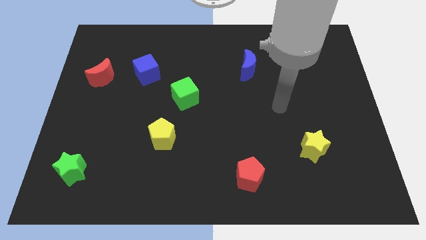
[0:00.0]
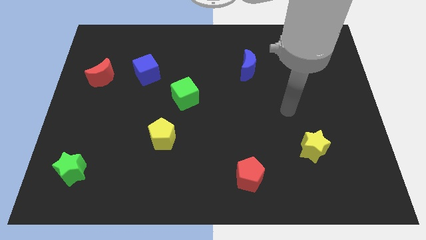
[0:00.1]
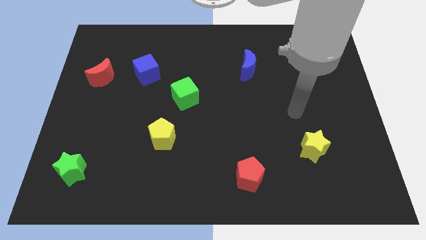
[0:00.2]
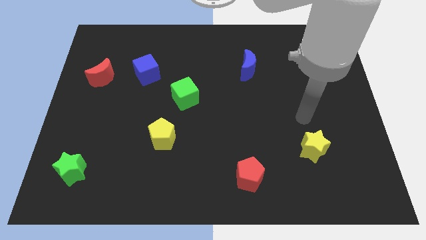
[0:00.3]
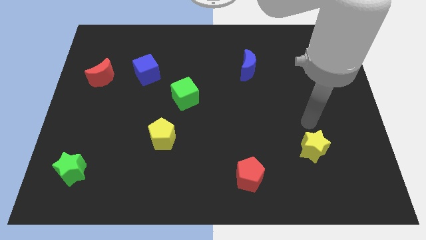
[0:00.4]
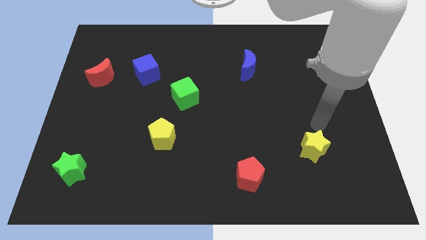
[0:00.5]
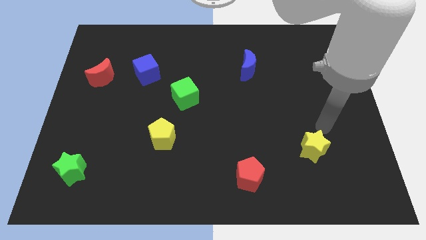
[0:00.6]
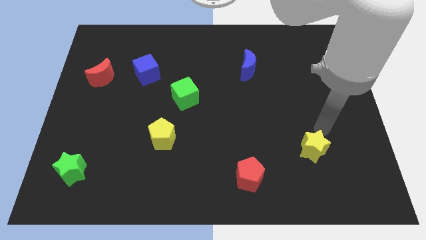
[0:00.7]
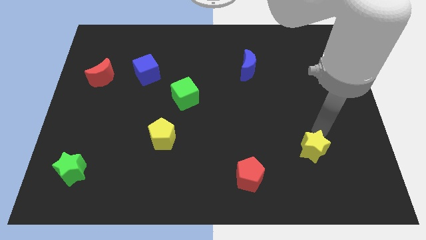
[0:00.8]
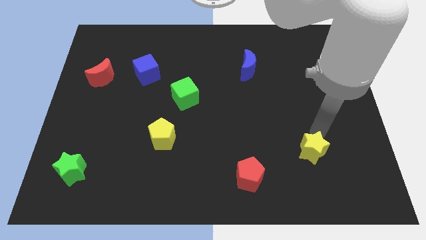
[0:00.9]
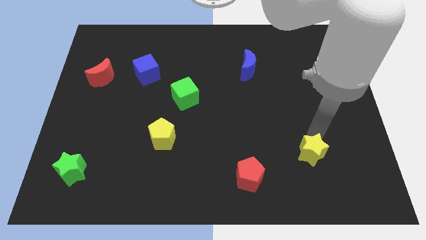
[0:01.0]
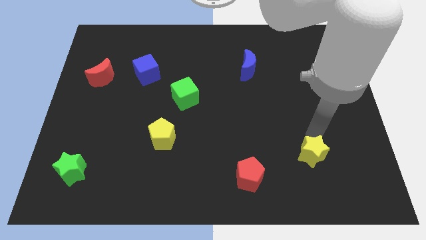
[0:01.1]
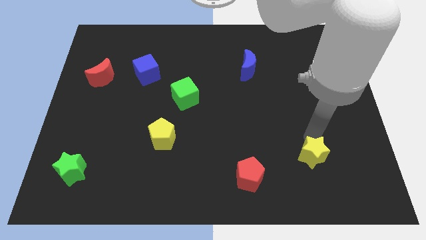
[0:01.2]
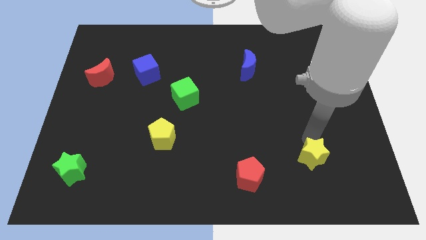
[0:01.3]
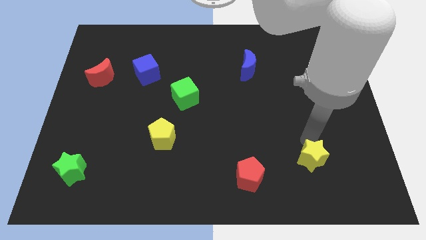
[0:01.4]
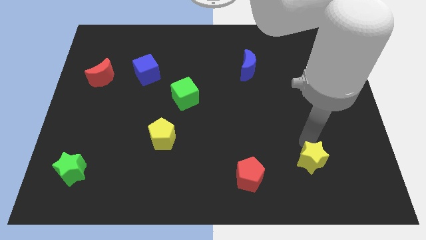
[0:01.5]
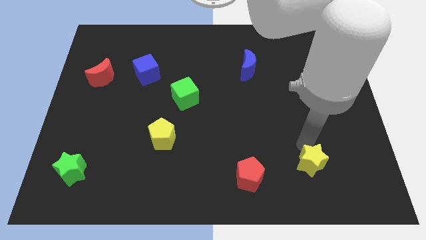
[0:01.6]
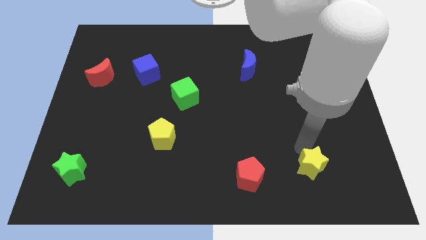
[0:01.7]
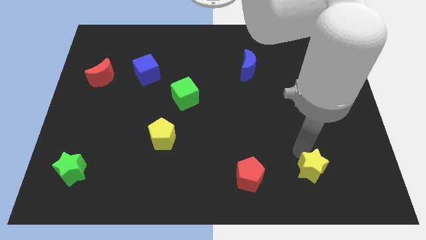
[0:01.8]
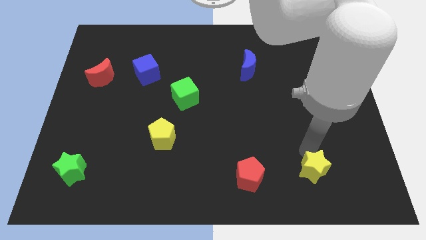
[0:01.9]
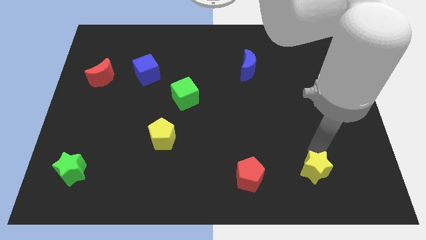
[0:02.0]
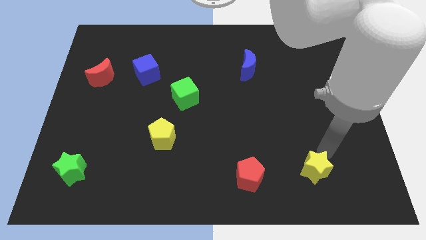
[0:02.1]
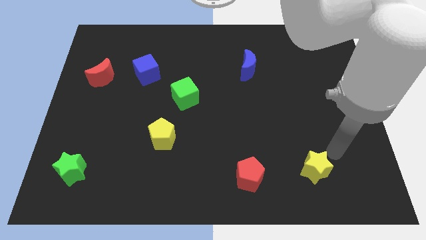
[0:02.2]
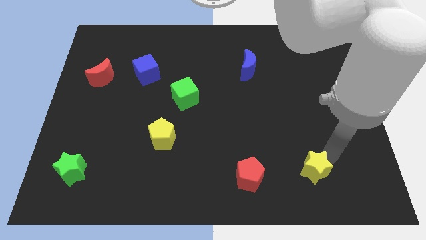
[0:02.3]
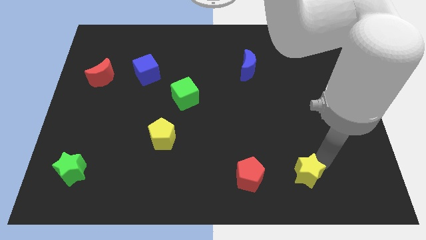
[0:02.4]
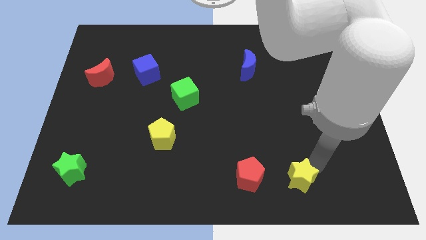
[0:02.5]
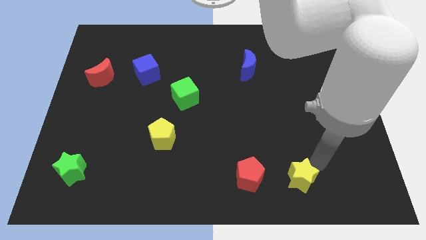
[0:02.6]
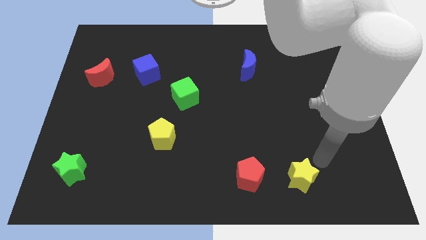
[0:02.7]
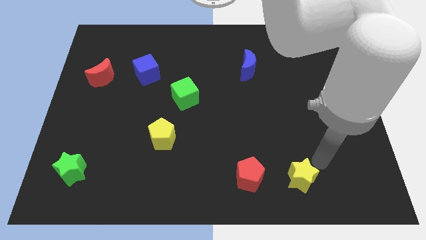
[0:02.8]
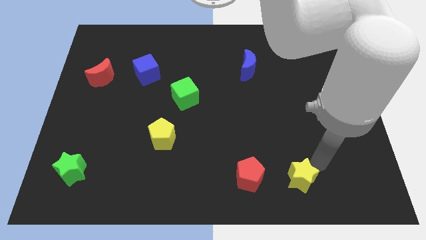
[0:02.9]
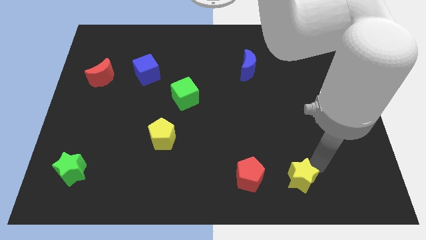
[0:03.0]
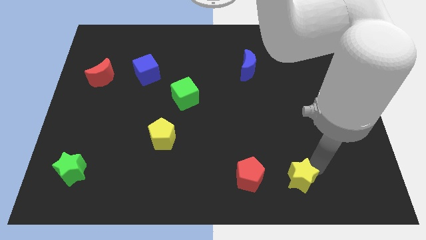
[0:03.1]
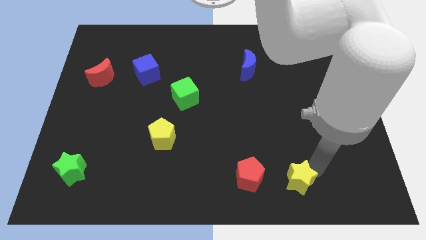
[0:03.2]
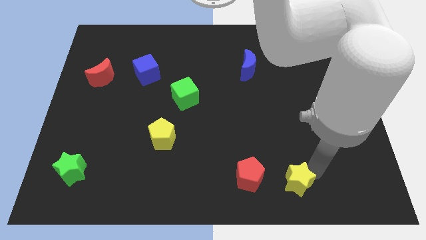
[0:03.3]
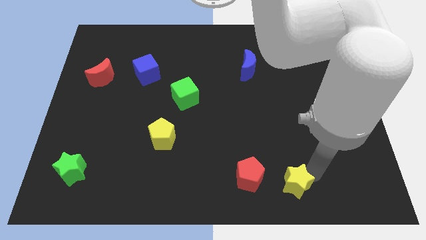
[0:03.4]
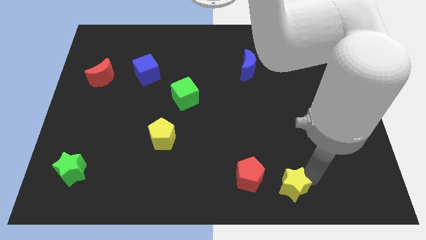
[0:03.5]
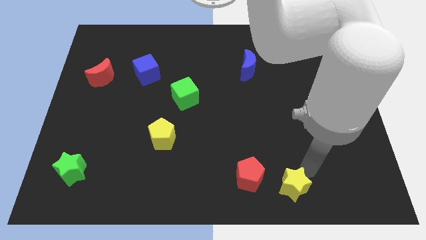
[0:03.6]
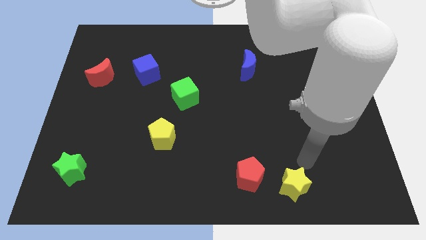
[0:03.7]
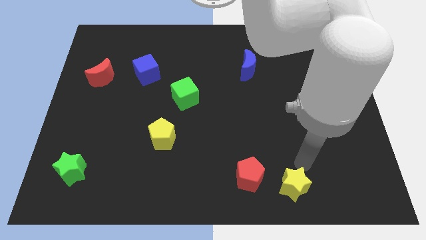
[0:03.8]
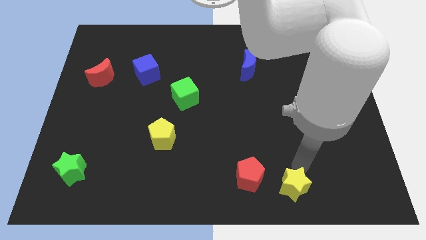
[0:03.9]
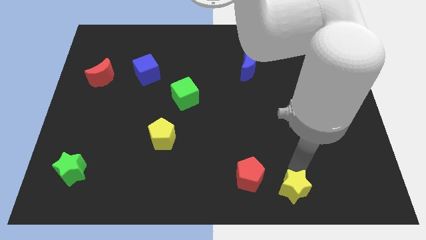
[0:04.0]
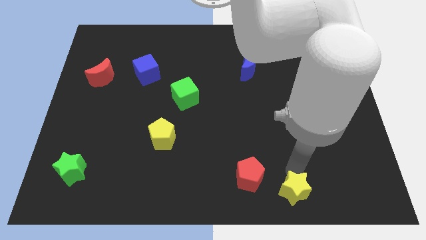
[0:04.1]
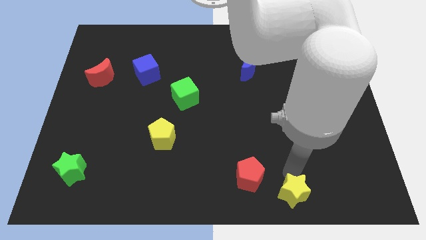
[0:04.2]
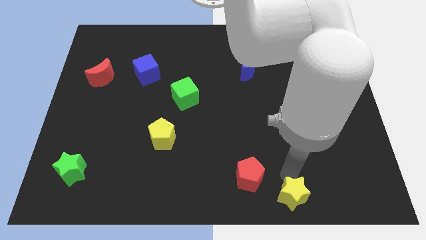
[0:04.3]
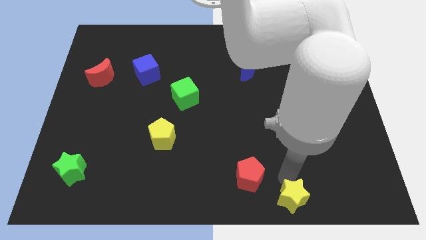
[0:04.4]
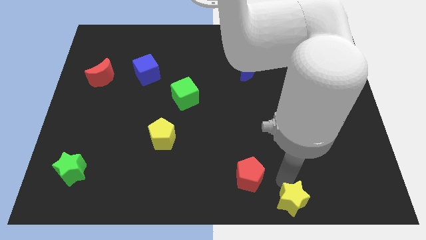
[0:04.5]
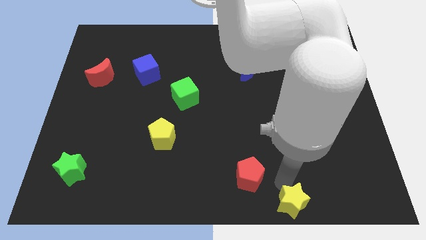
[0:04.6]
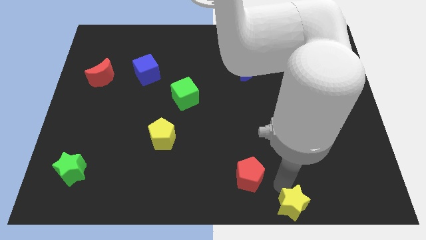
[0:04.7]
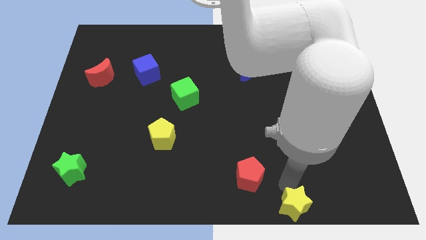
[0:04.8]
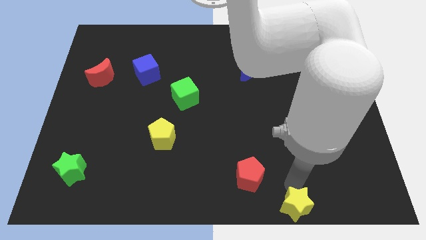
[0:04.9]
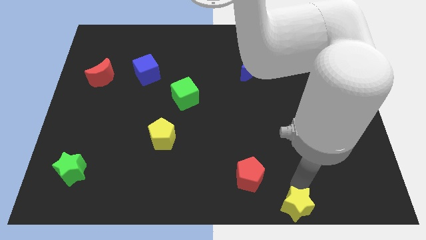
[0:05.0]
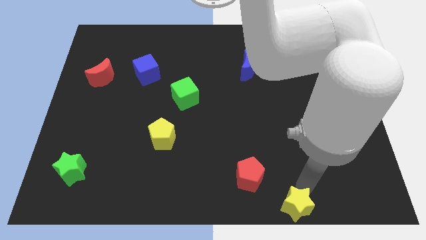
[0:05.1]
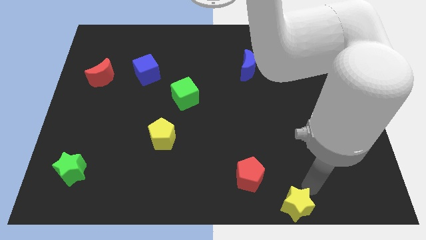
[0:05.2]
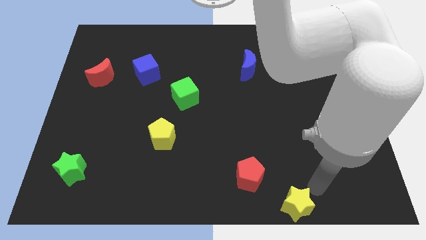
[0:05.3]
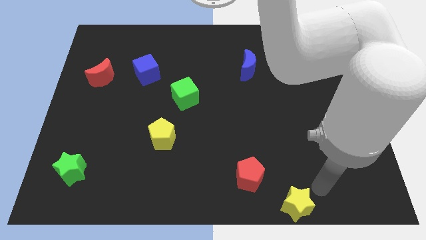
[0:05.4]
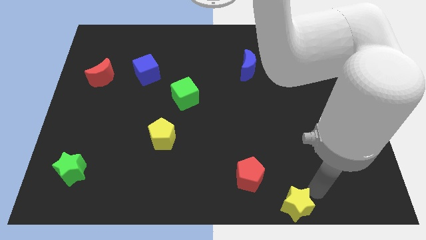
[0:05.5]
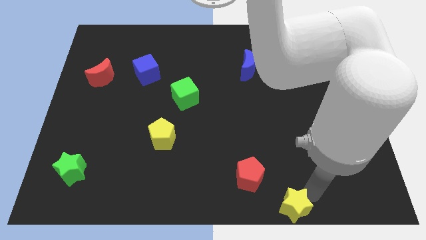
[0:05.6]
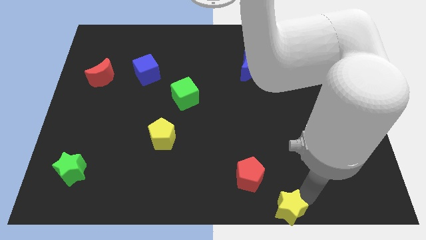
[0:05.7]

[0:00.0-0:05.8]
slide the yellow star to the bottom side

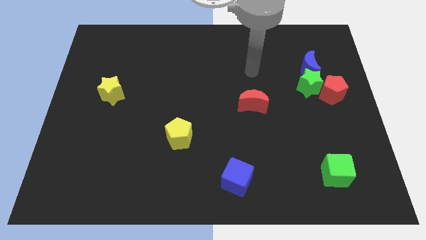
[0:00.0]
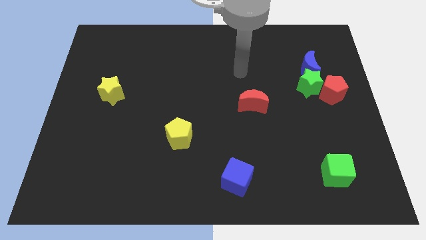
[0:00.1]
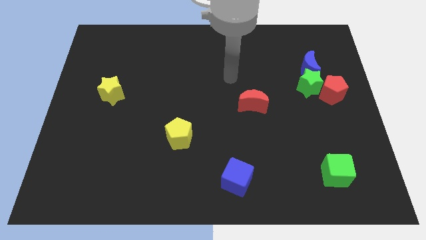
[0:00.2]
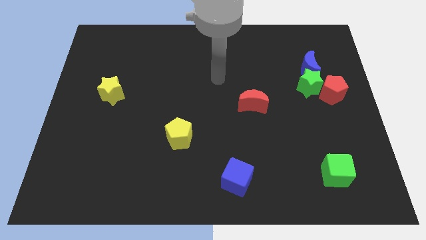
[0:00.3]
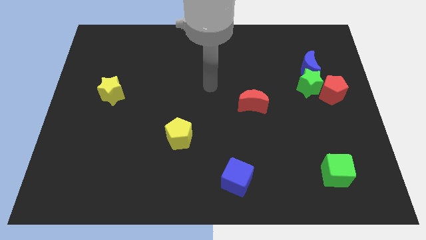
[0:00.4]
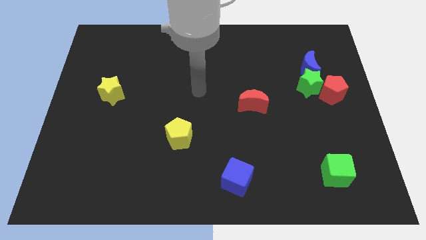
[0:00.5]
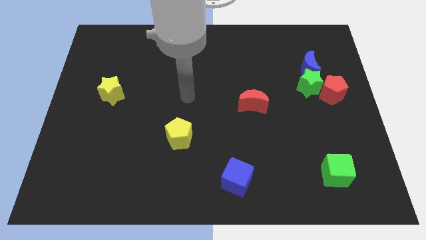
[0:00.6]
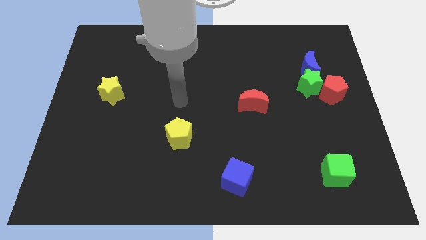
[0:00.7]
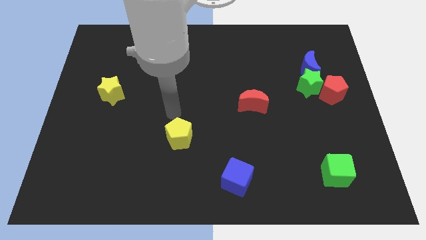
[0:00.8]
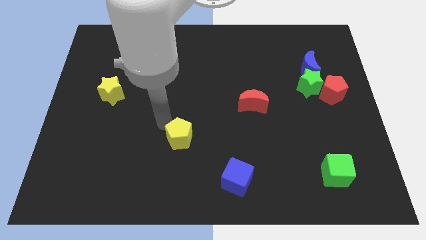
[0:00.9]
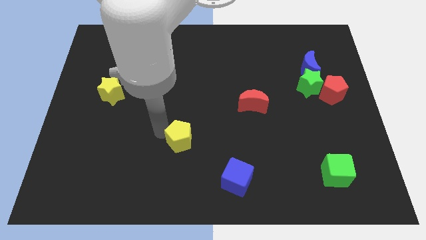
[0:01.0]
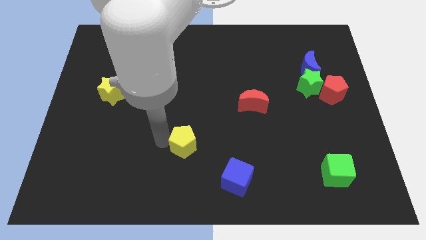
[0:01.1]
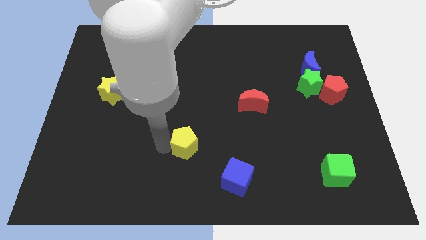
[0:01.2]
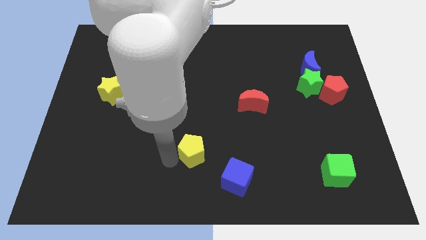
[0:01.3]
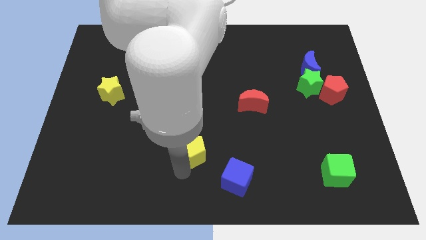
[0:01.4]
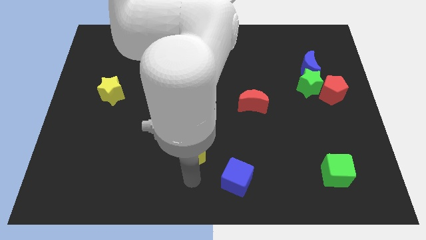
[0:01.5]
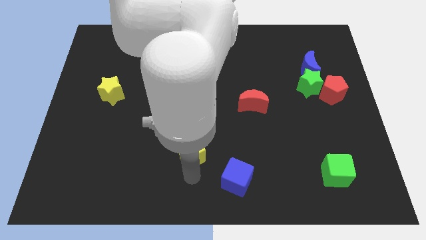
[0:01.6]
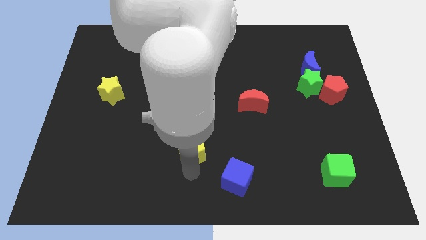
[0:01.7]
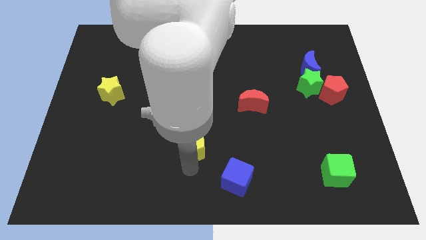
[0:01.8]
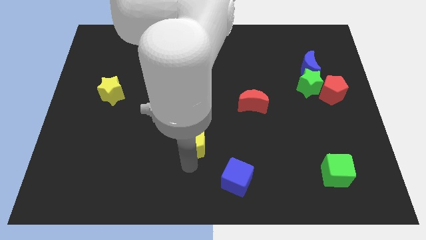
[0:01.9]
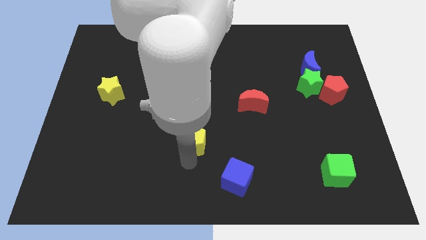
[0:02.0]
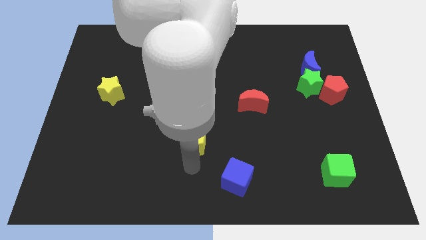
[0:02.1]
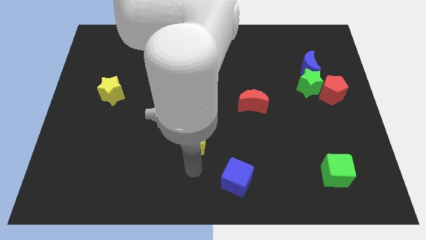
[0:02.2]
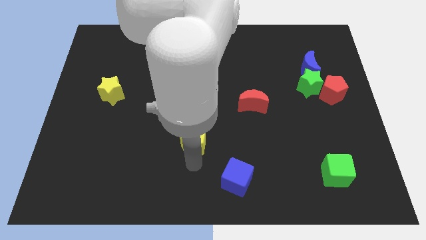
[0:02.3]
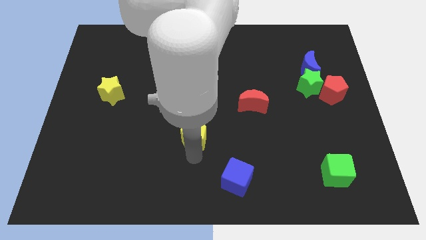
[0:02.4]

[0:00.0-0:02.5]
push the yellow pentagon to the center
